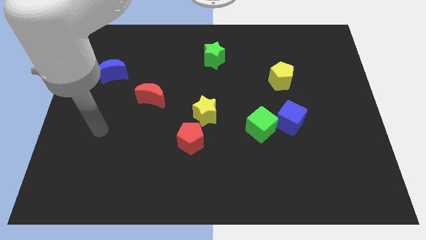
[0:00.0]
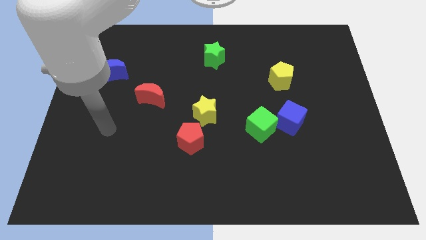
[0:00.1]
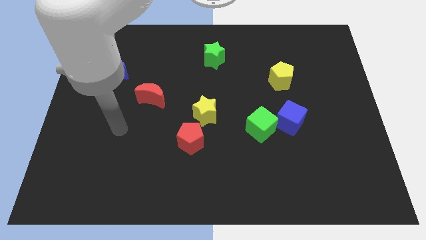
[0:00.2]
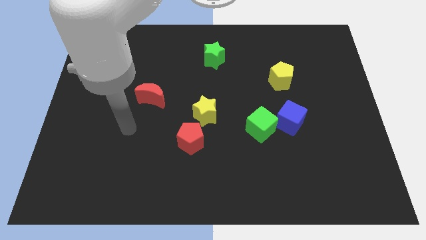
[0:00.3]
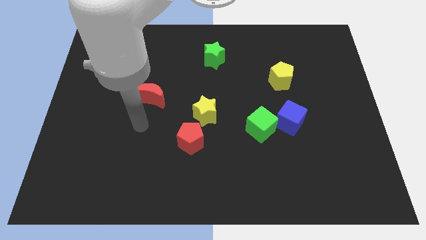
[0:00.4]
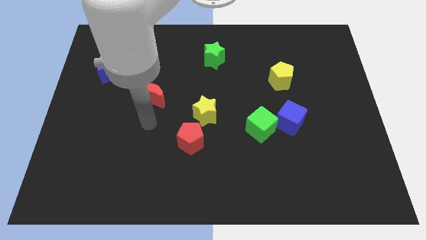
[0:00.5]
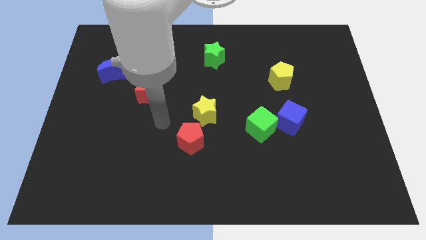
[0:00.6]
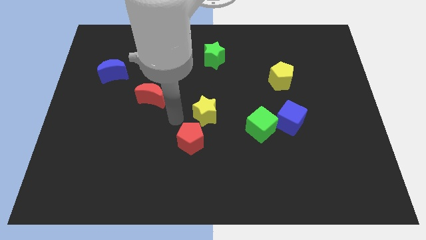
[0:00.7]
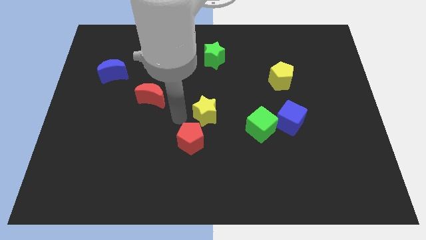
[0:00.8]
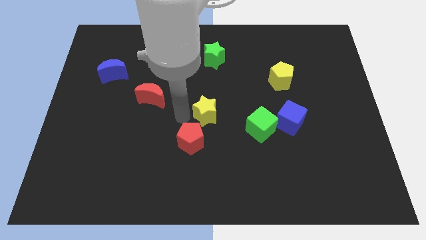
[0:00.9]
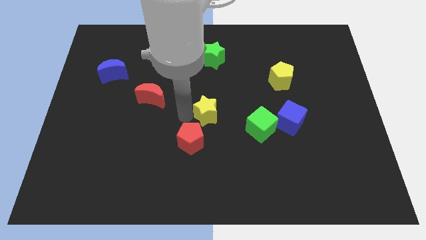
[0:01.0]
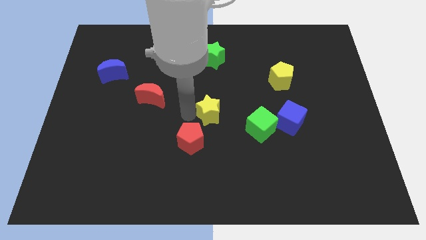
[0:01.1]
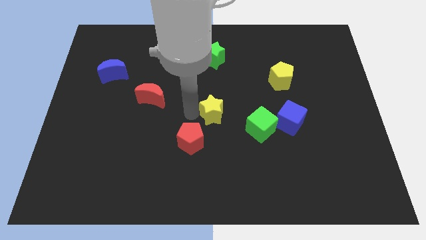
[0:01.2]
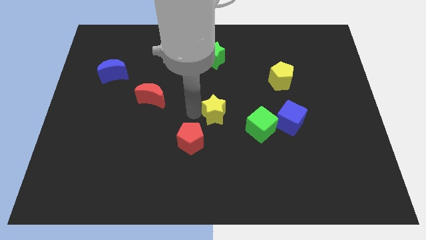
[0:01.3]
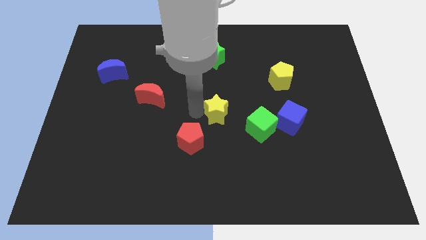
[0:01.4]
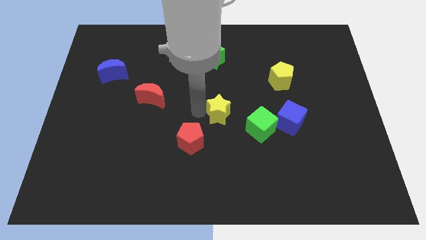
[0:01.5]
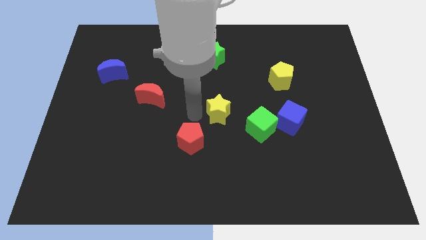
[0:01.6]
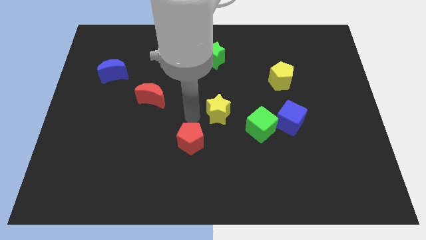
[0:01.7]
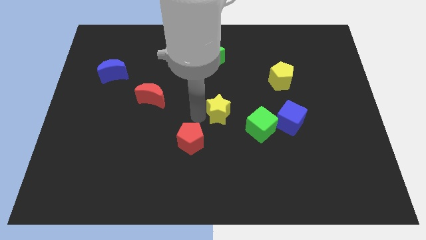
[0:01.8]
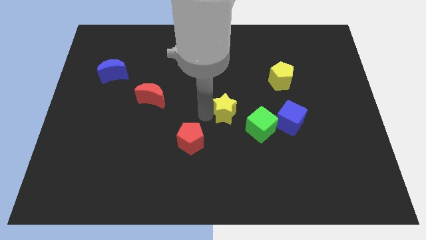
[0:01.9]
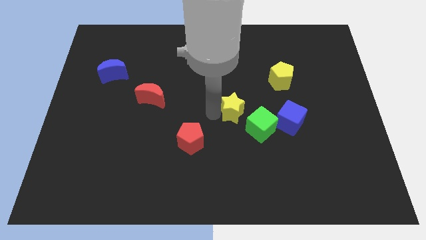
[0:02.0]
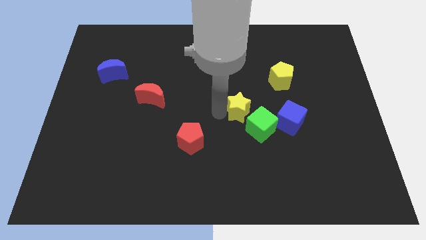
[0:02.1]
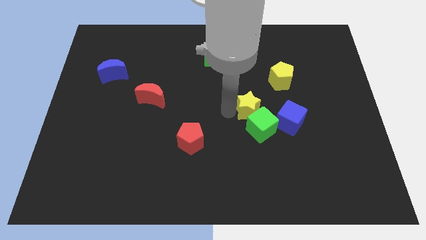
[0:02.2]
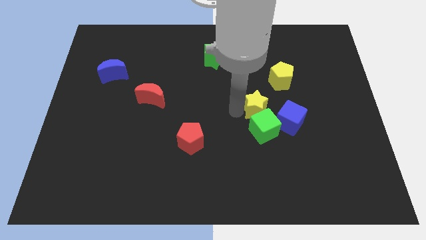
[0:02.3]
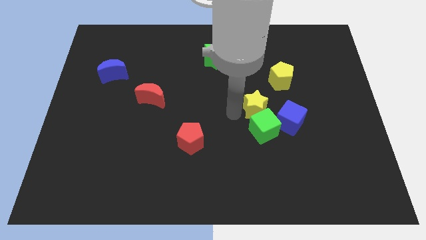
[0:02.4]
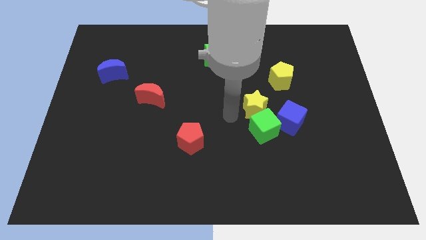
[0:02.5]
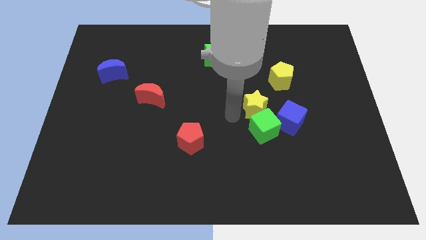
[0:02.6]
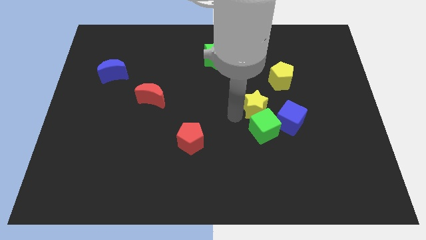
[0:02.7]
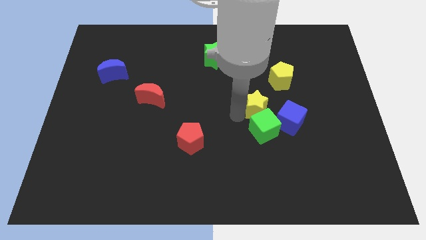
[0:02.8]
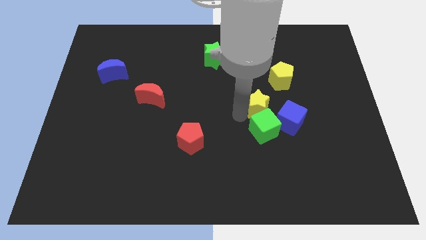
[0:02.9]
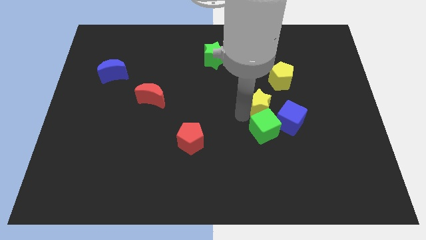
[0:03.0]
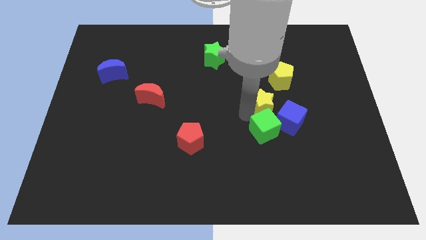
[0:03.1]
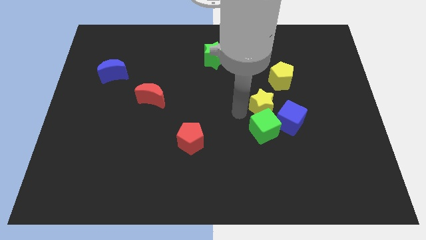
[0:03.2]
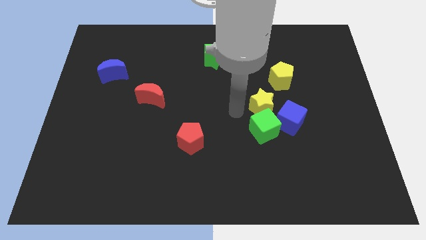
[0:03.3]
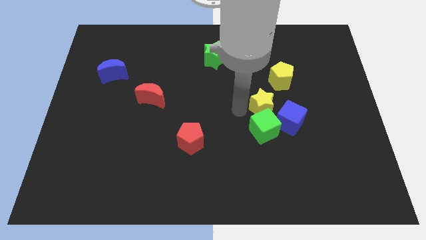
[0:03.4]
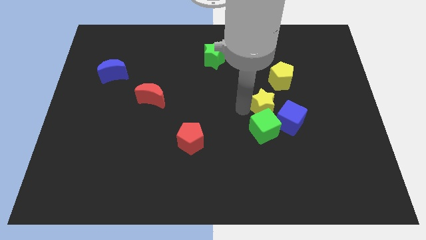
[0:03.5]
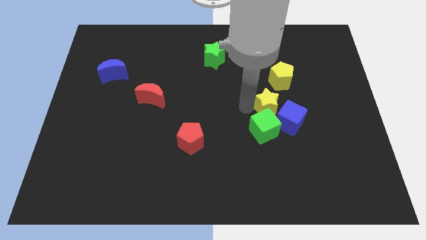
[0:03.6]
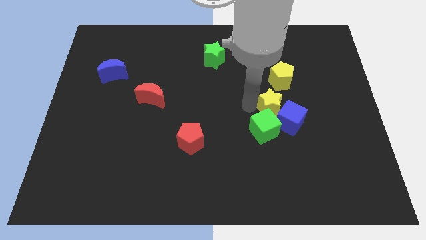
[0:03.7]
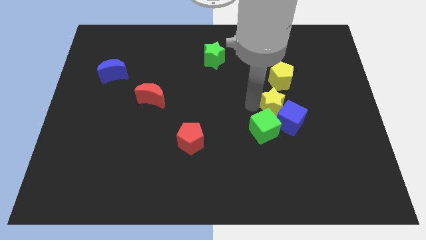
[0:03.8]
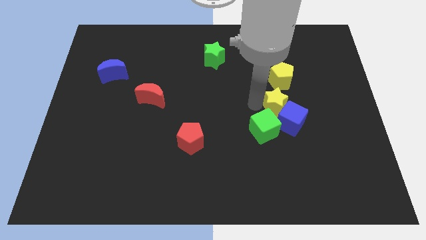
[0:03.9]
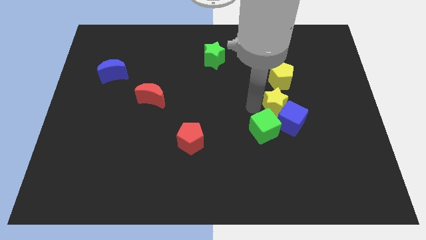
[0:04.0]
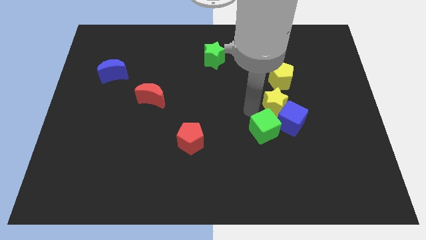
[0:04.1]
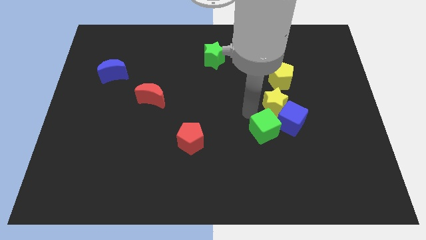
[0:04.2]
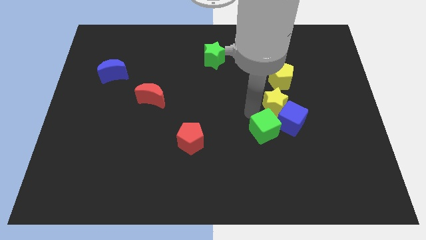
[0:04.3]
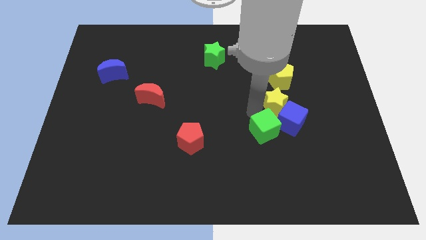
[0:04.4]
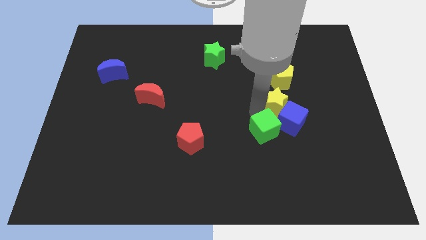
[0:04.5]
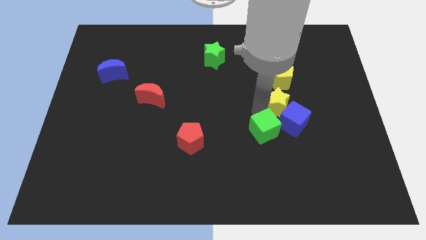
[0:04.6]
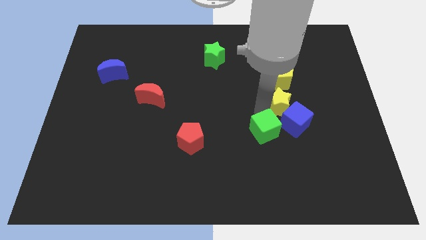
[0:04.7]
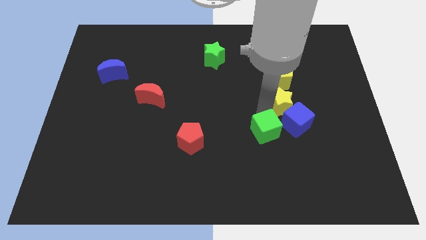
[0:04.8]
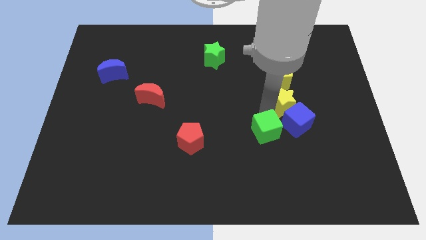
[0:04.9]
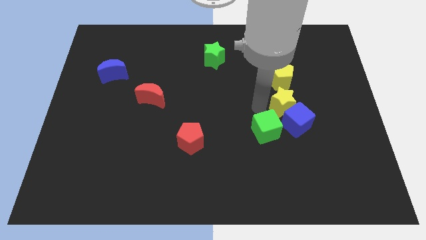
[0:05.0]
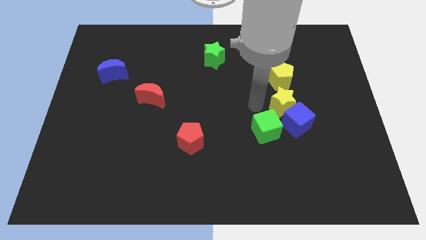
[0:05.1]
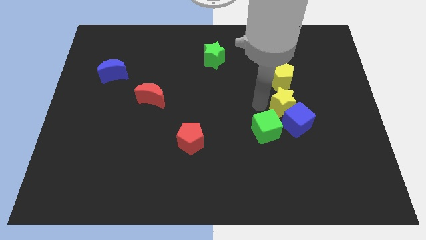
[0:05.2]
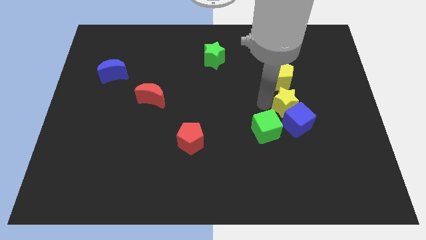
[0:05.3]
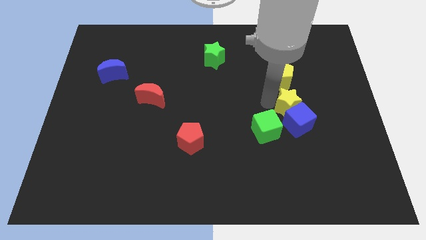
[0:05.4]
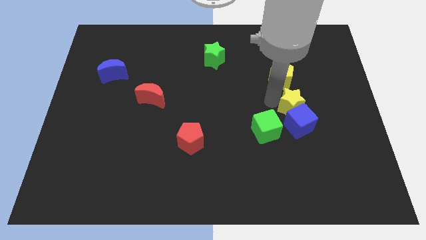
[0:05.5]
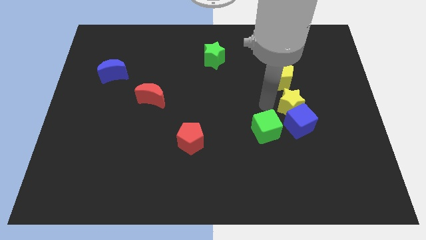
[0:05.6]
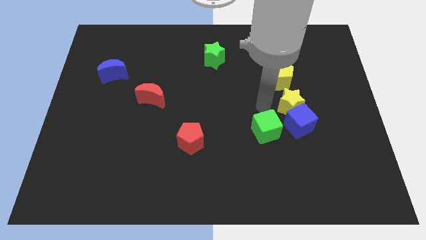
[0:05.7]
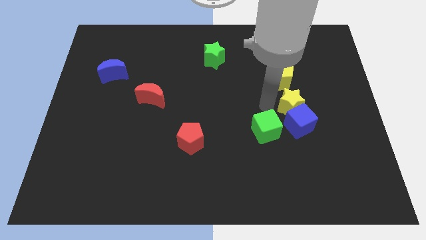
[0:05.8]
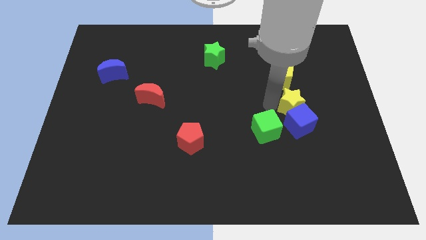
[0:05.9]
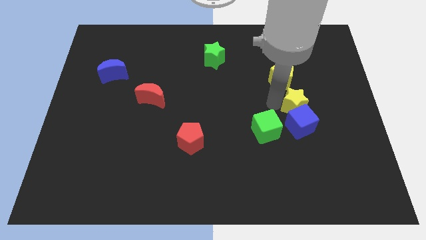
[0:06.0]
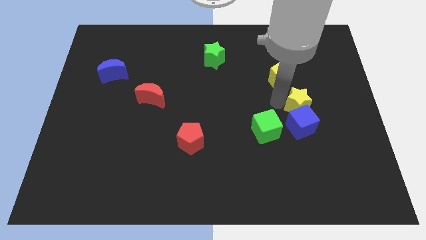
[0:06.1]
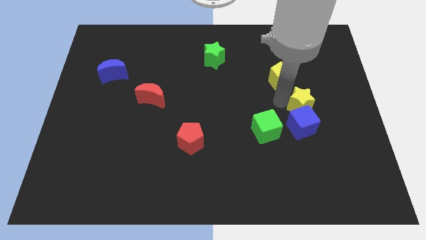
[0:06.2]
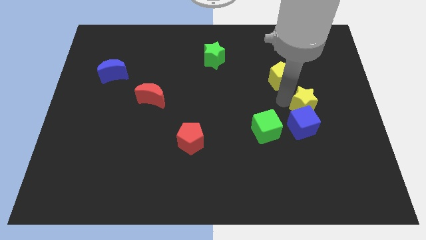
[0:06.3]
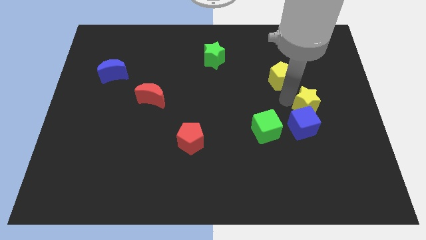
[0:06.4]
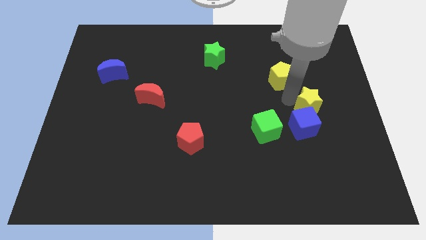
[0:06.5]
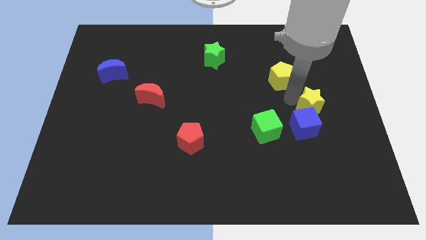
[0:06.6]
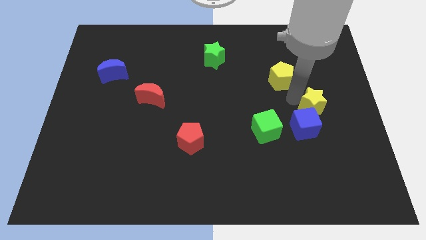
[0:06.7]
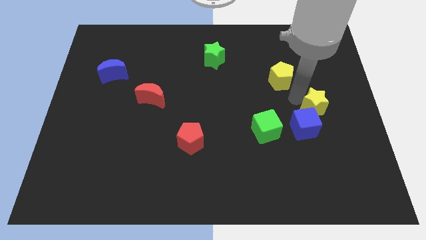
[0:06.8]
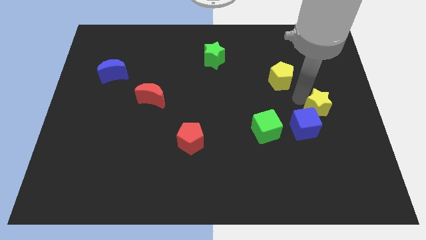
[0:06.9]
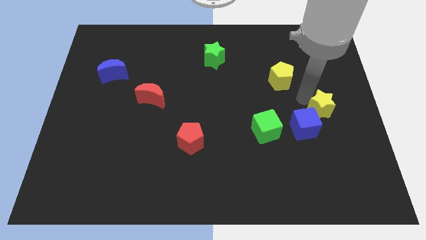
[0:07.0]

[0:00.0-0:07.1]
push the yellow star to the right side
